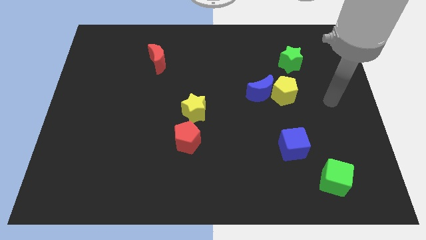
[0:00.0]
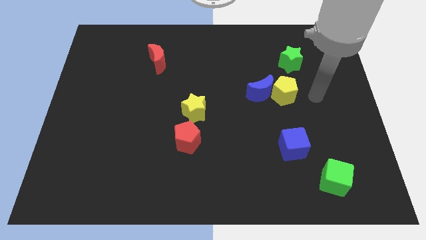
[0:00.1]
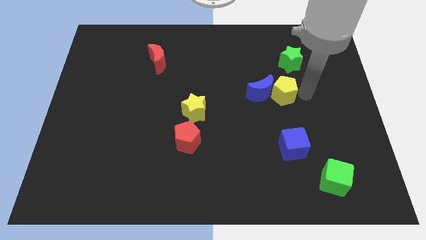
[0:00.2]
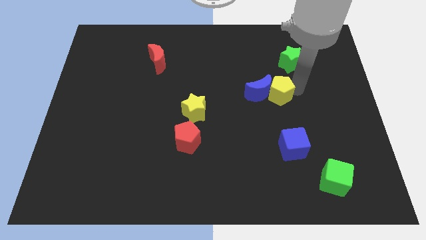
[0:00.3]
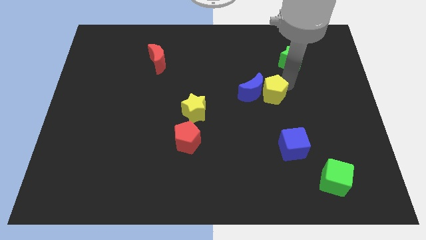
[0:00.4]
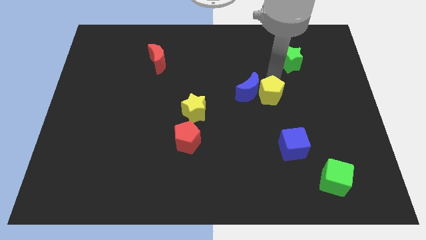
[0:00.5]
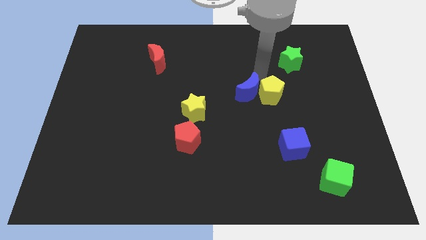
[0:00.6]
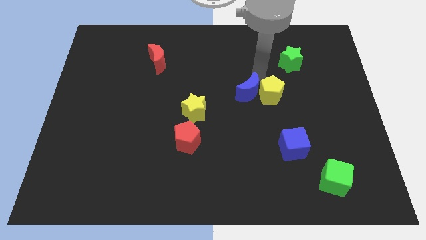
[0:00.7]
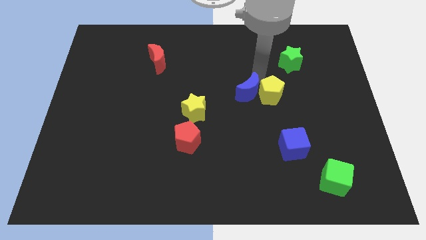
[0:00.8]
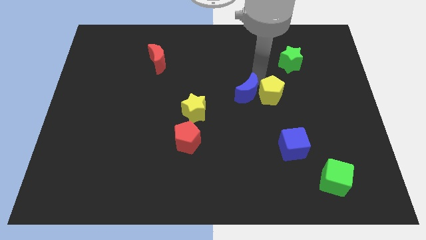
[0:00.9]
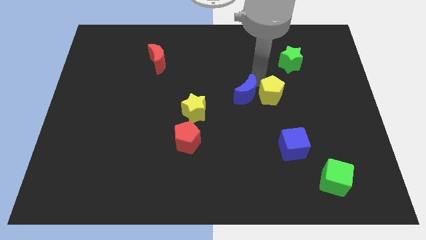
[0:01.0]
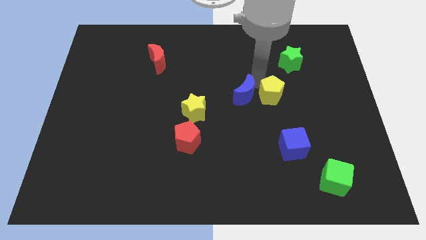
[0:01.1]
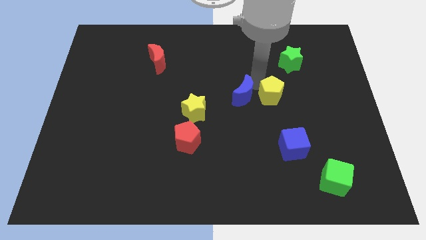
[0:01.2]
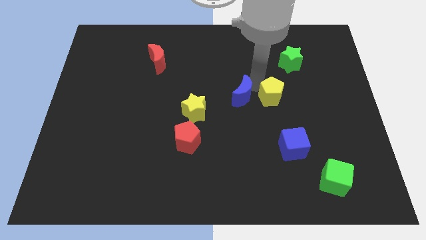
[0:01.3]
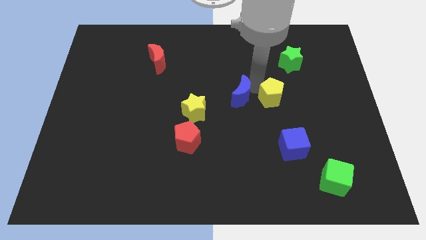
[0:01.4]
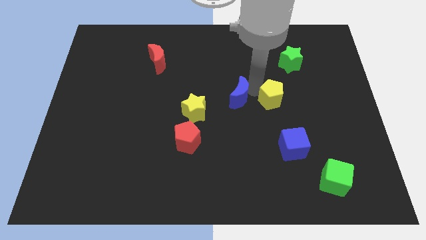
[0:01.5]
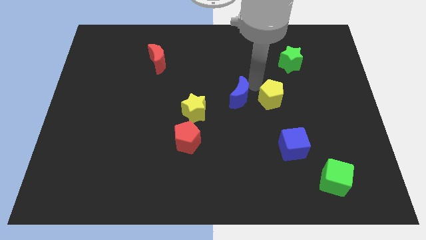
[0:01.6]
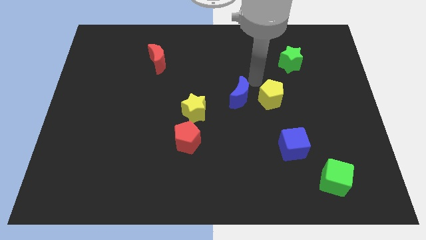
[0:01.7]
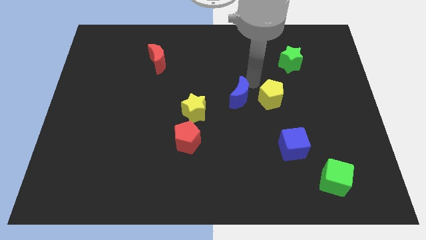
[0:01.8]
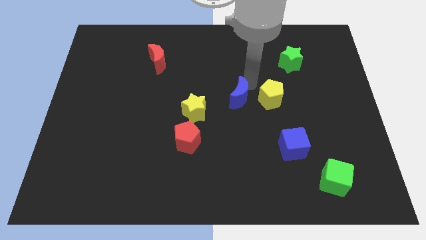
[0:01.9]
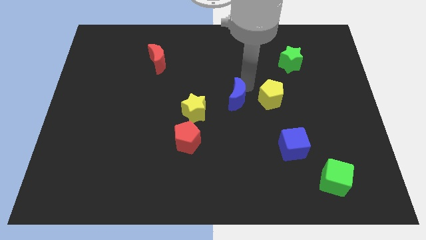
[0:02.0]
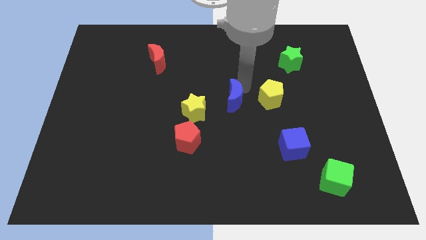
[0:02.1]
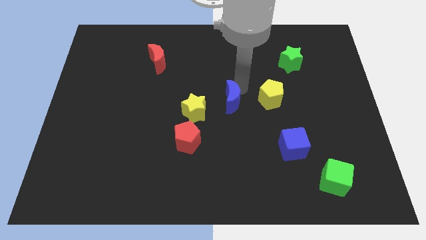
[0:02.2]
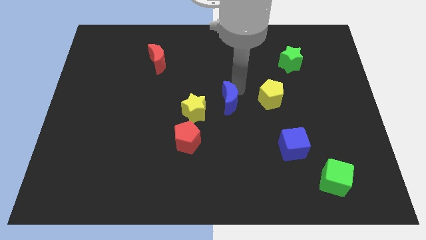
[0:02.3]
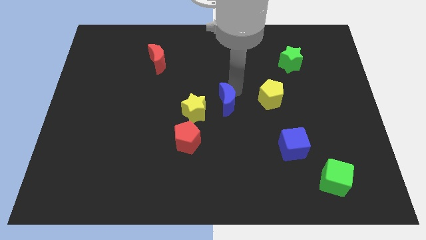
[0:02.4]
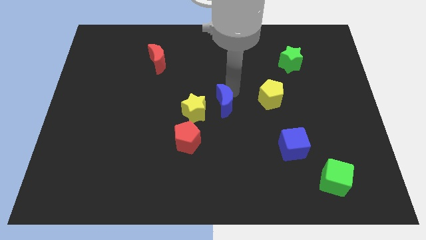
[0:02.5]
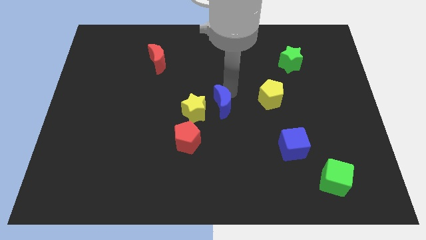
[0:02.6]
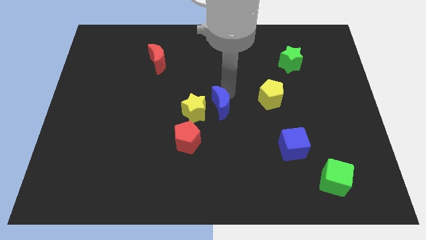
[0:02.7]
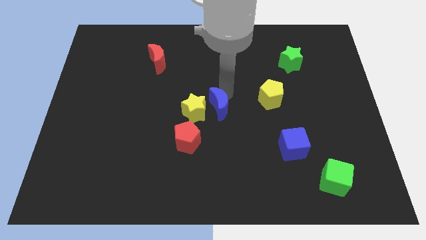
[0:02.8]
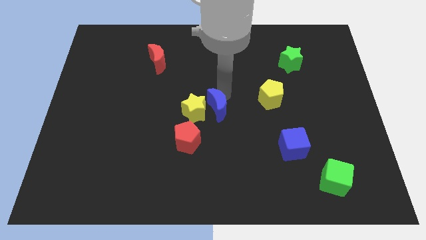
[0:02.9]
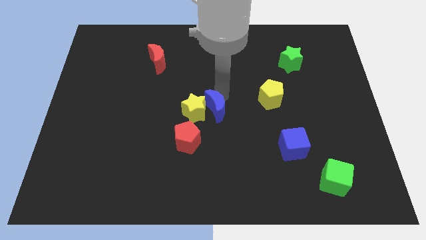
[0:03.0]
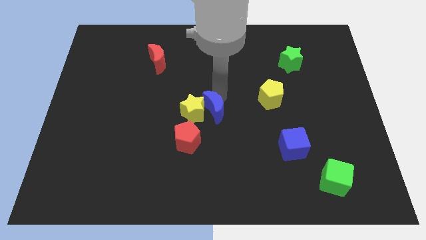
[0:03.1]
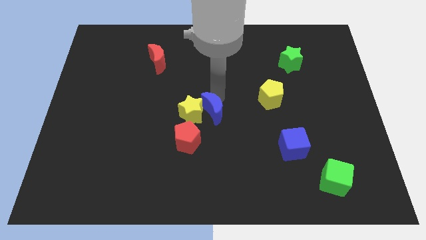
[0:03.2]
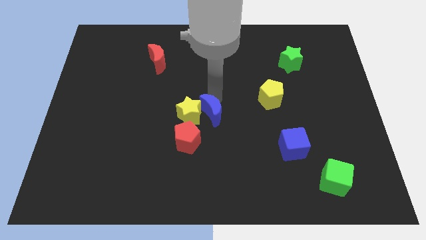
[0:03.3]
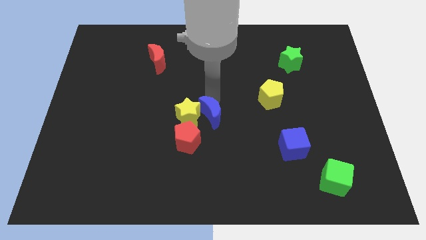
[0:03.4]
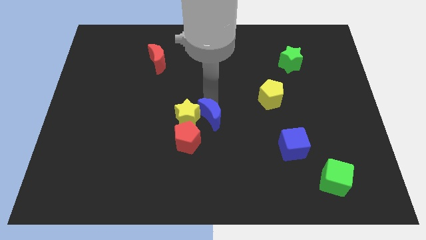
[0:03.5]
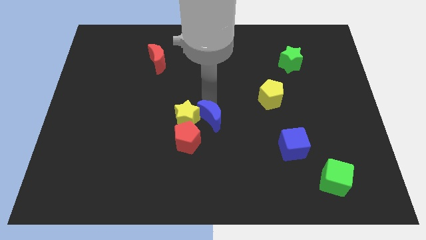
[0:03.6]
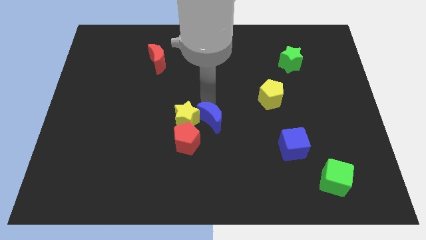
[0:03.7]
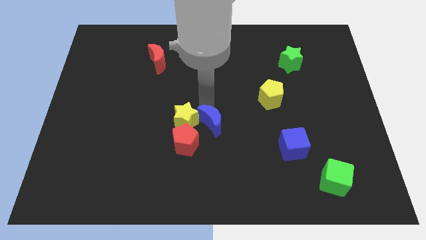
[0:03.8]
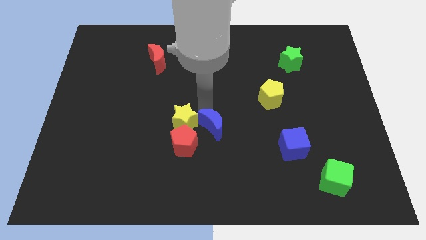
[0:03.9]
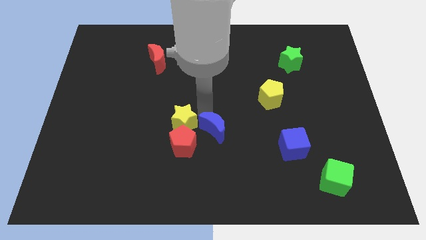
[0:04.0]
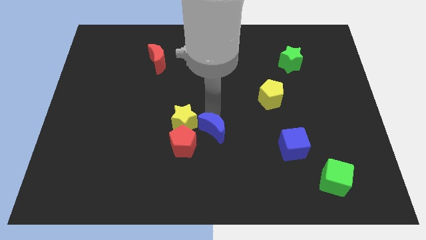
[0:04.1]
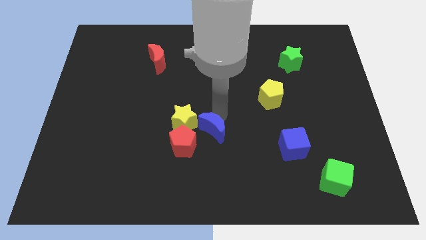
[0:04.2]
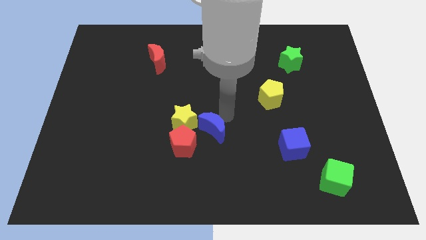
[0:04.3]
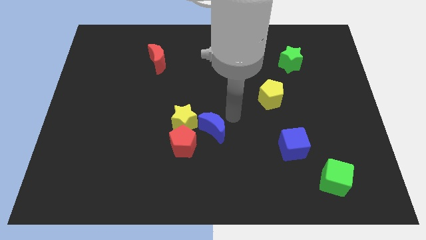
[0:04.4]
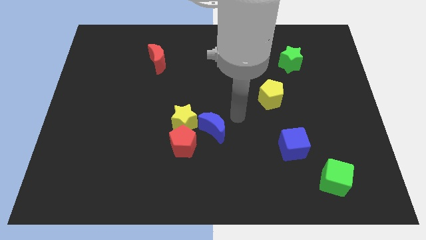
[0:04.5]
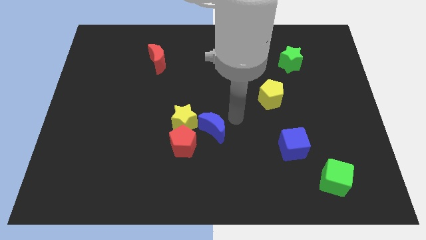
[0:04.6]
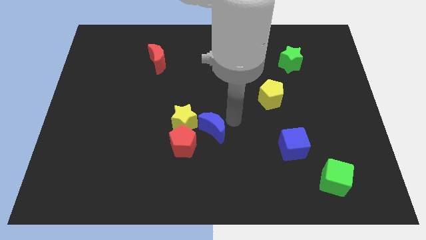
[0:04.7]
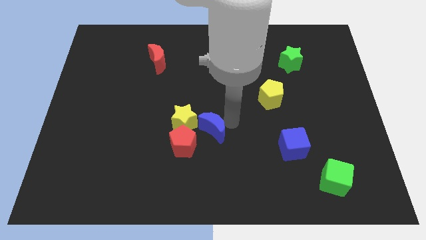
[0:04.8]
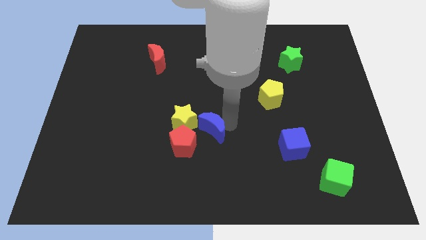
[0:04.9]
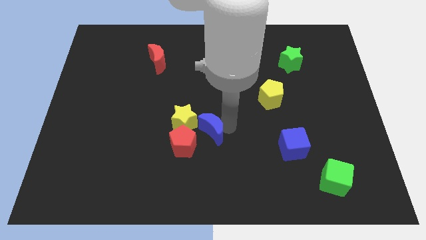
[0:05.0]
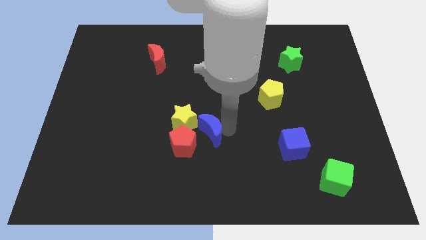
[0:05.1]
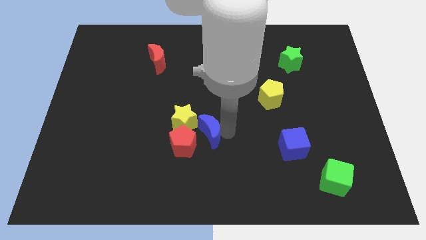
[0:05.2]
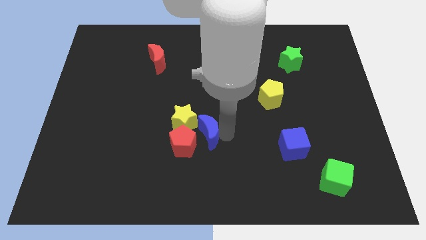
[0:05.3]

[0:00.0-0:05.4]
put the blue moon towards the red pentagon
